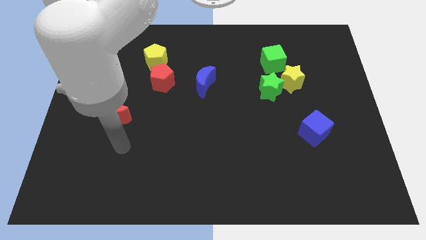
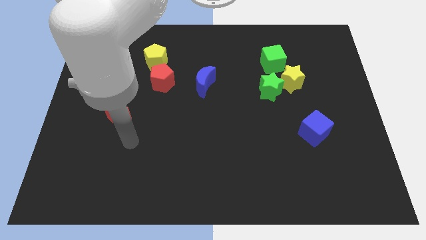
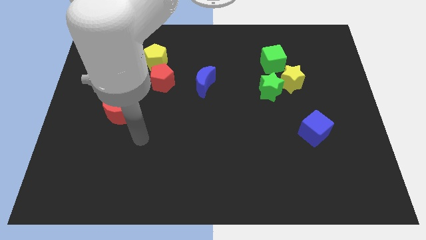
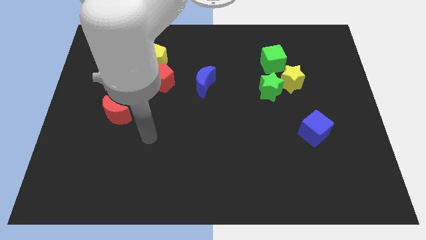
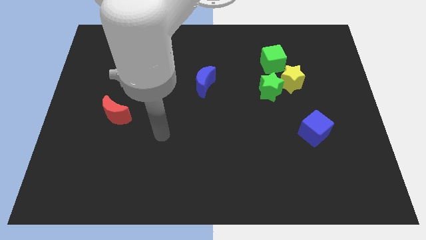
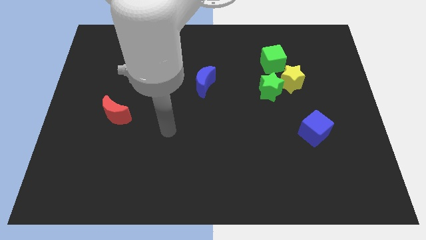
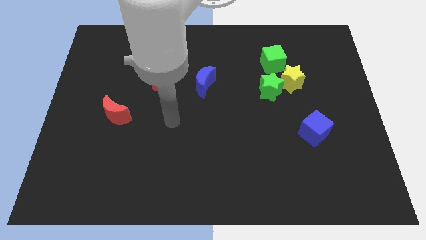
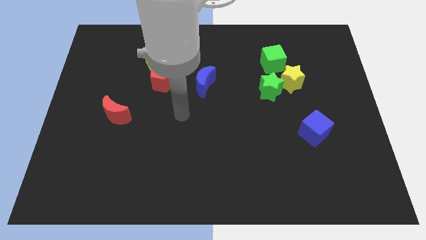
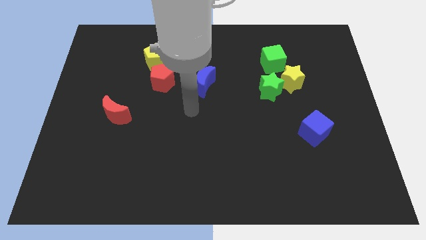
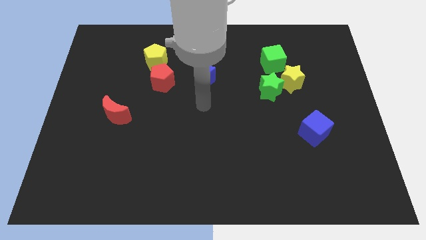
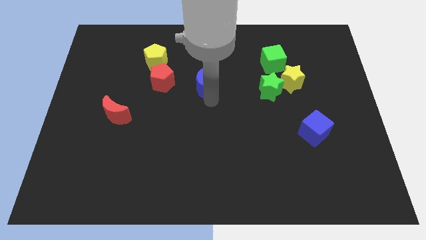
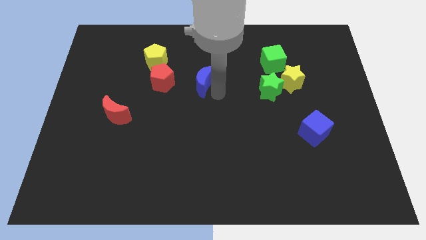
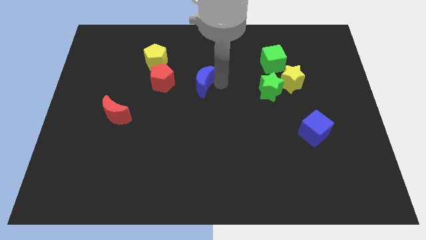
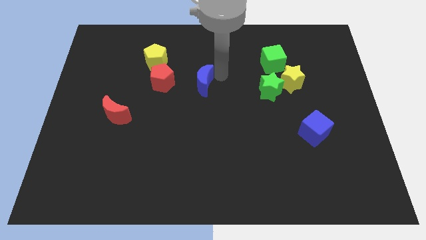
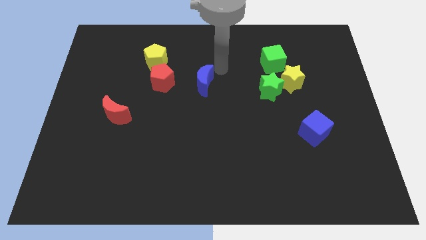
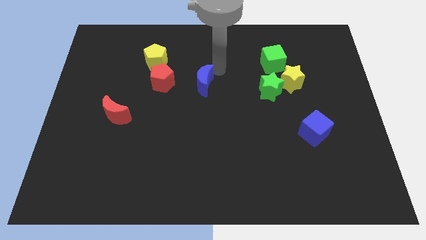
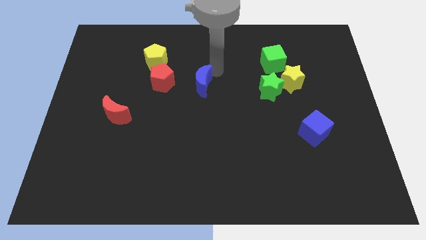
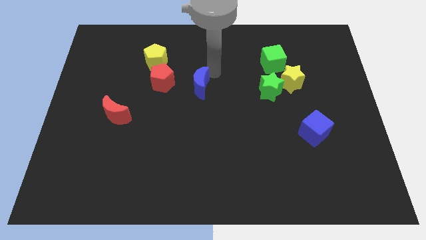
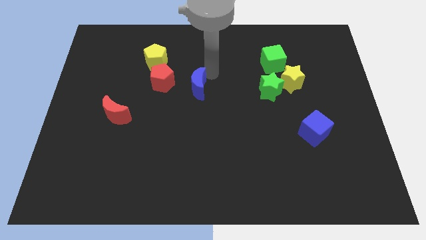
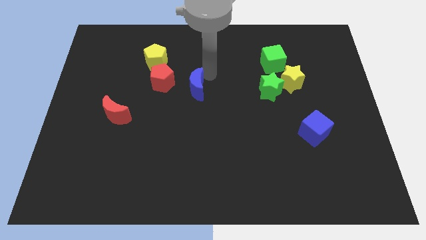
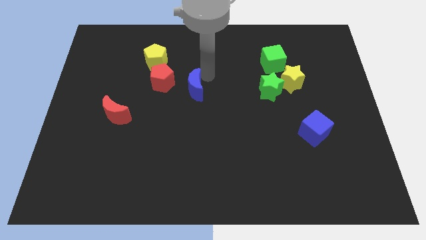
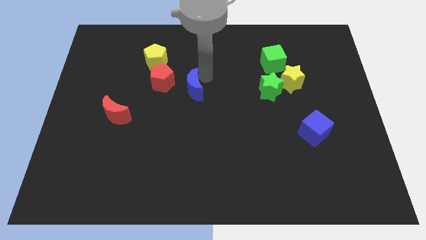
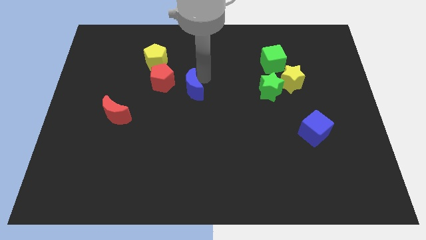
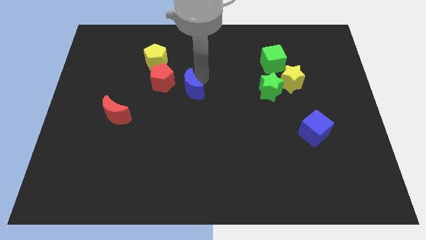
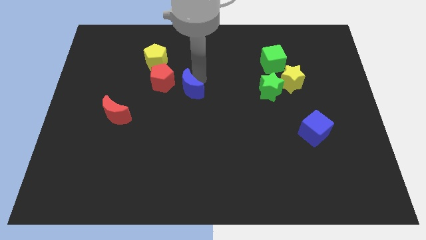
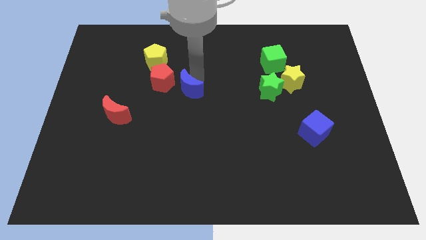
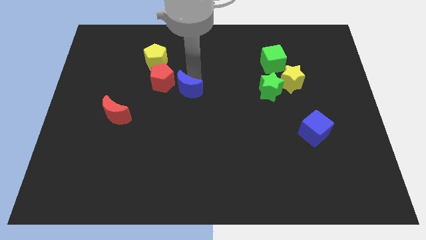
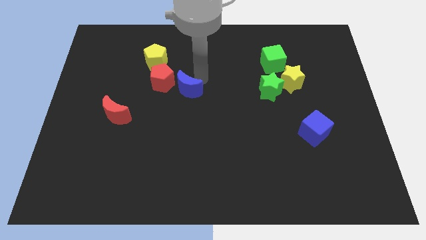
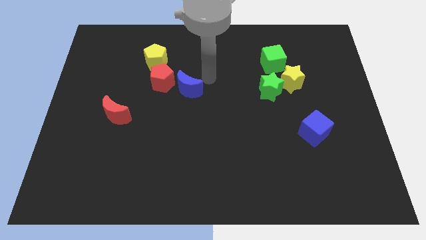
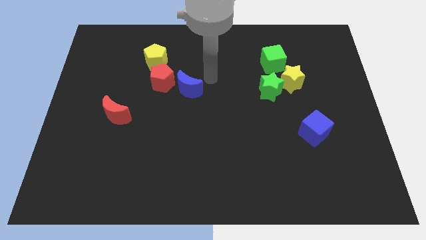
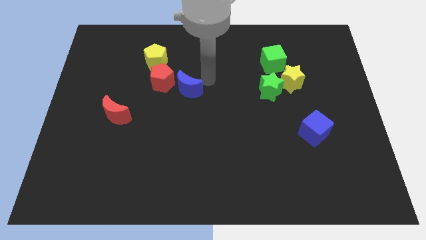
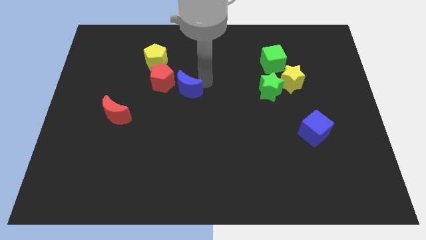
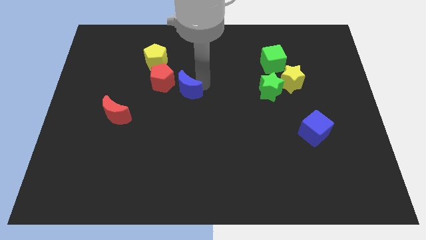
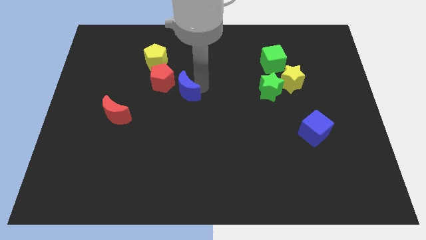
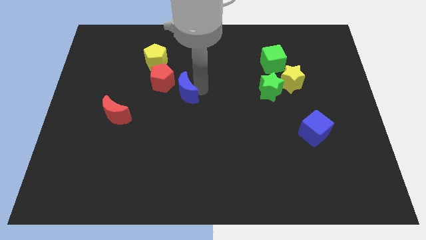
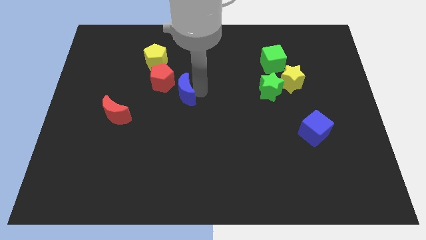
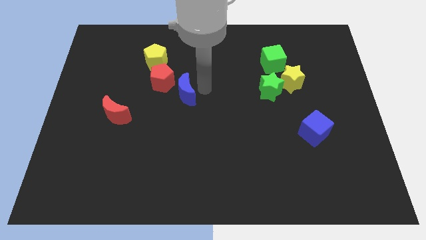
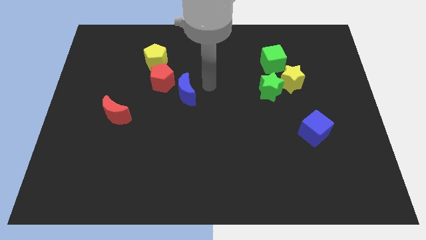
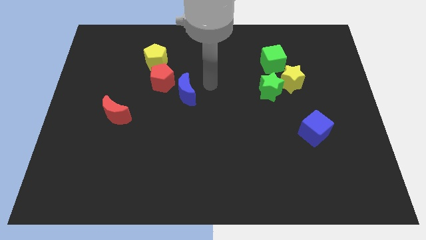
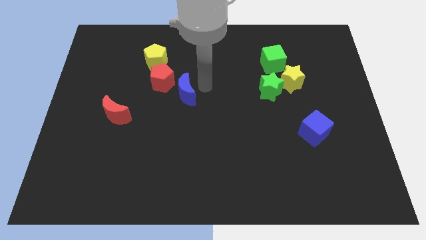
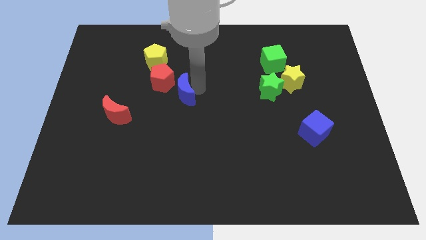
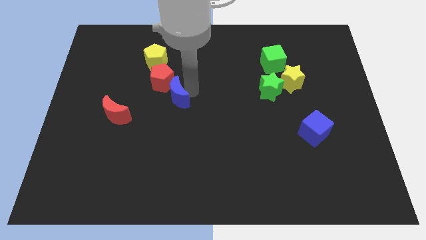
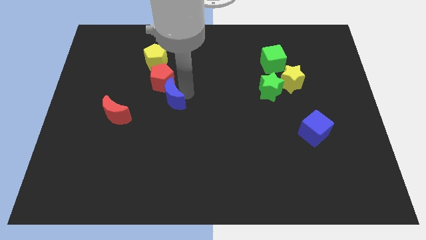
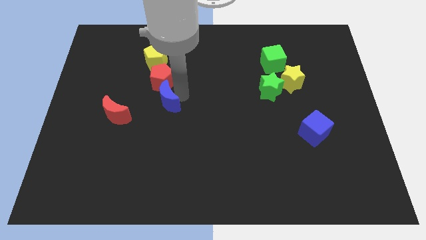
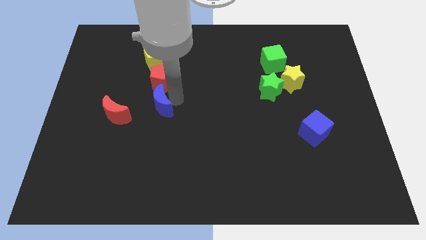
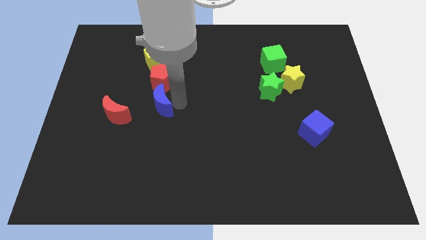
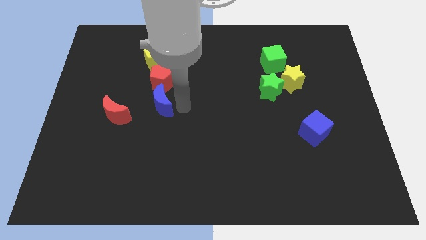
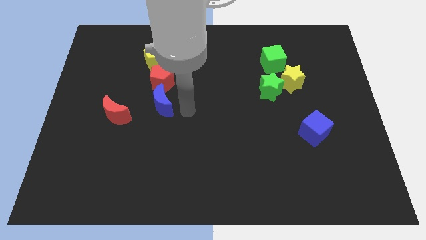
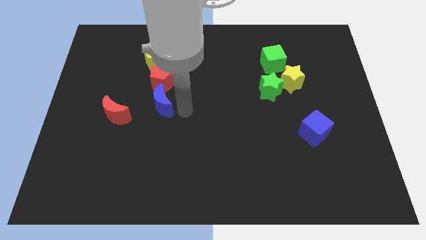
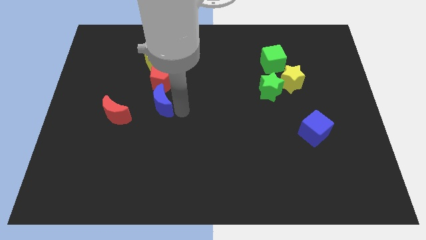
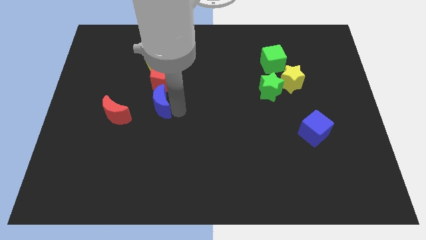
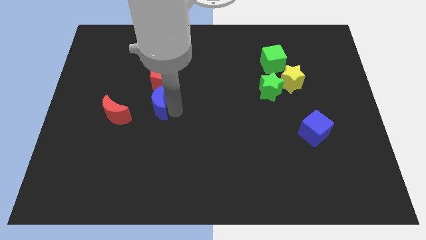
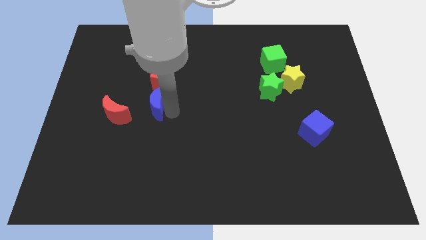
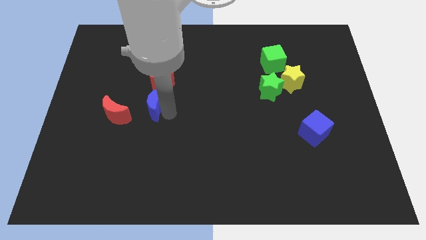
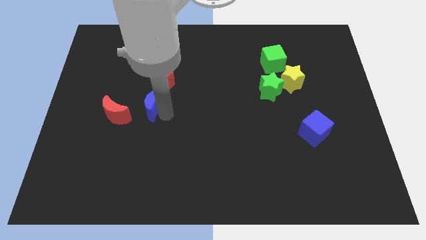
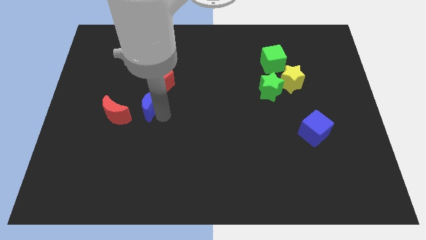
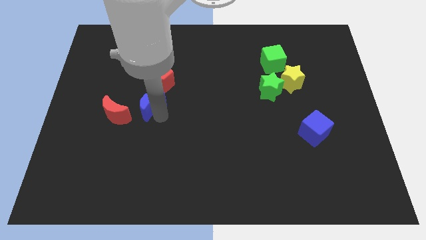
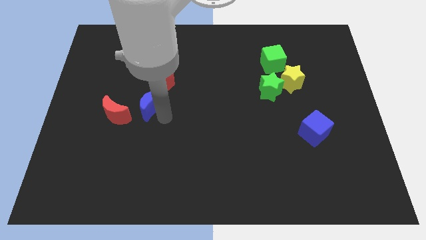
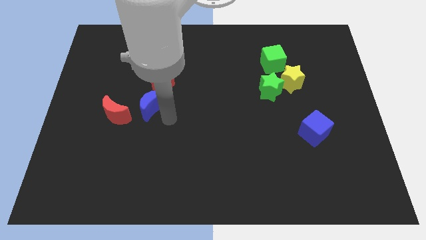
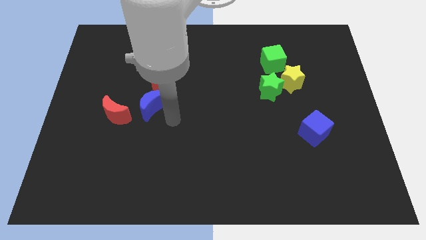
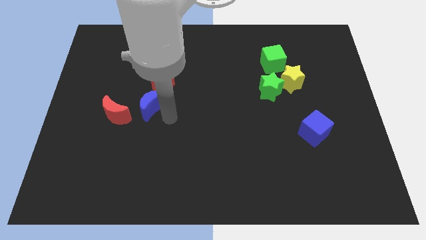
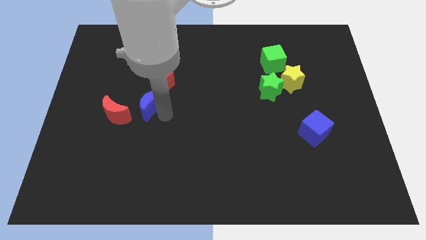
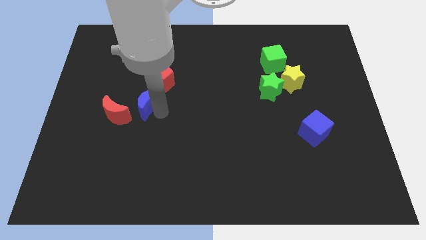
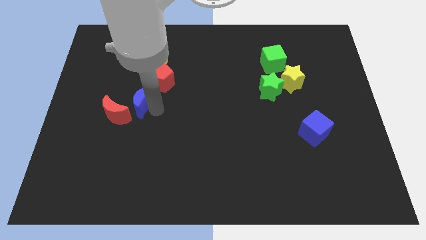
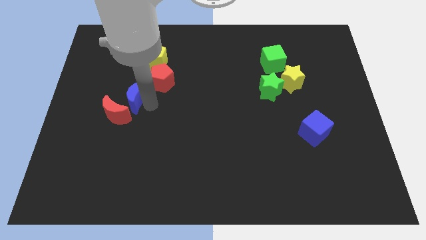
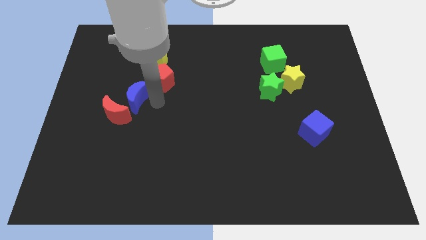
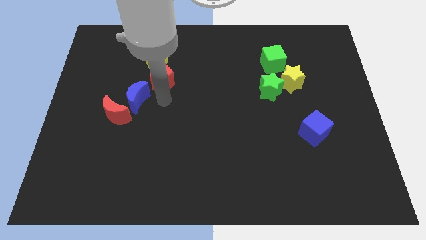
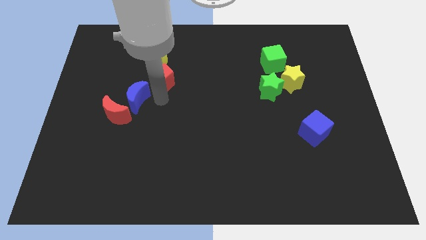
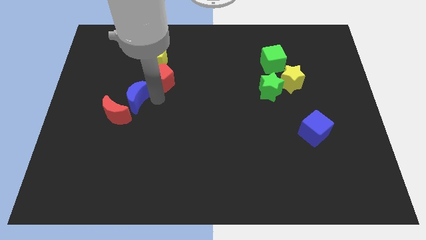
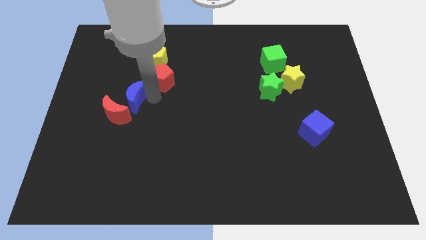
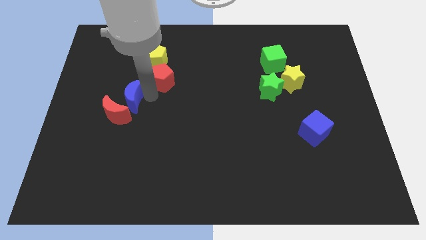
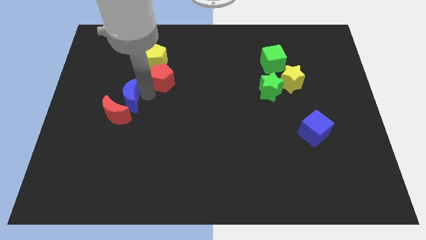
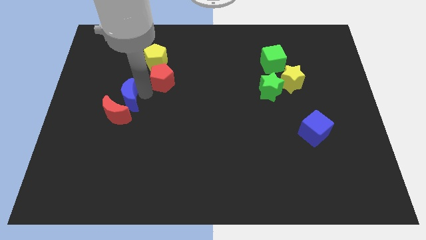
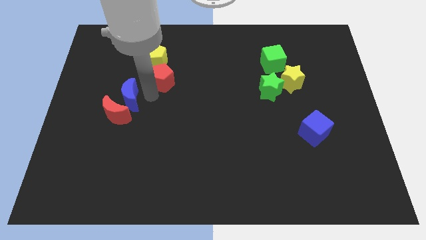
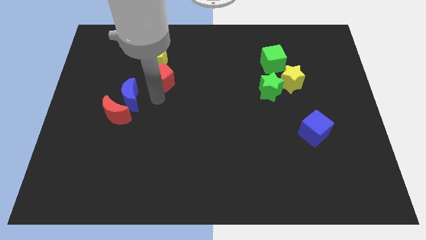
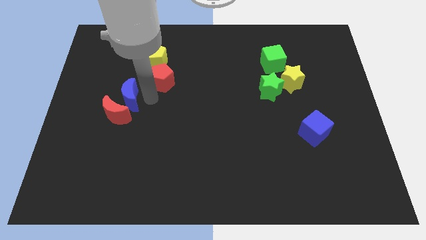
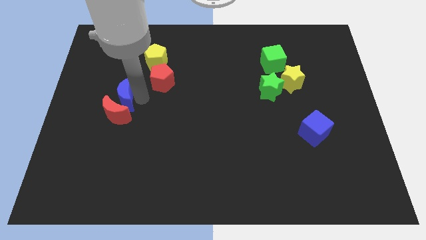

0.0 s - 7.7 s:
put the blue moon to the top left of the red moon

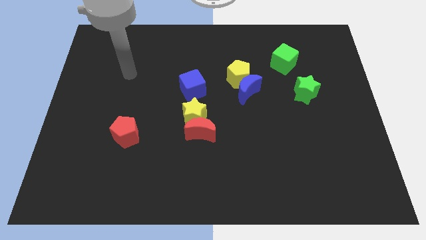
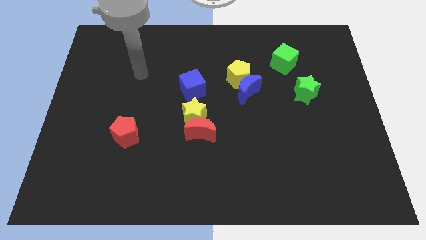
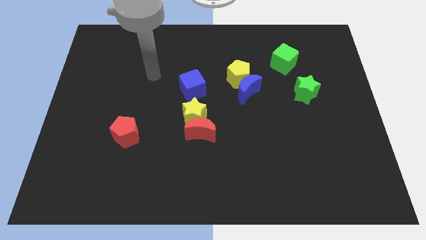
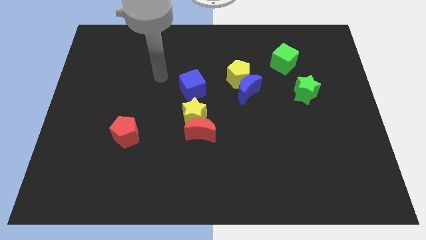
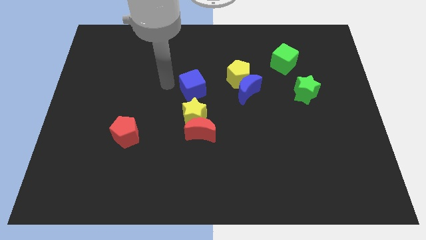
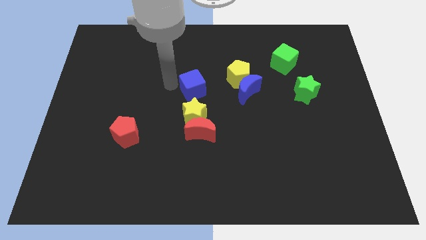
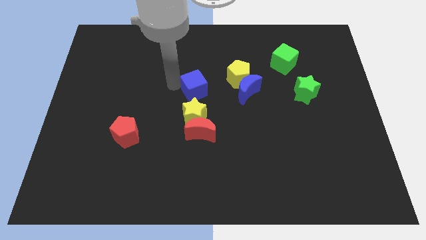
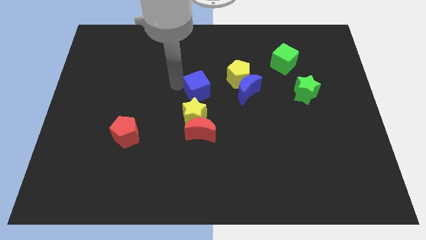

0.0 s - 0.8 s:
move the blue cube to the bottom left of the yellow pentagon
